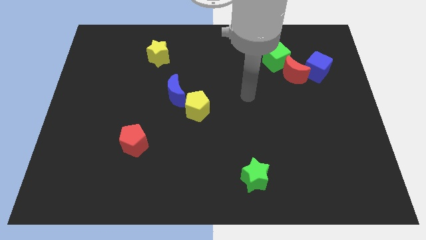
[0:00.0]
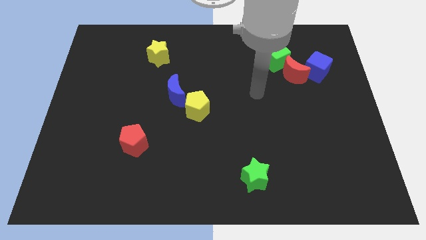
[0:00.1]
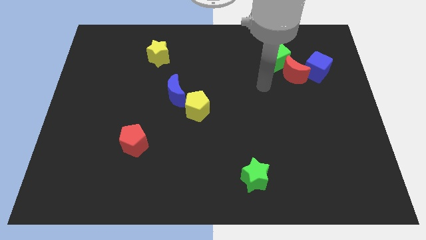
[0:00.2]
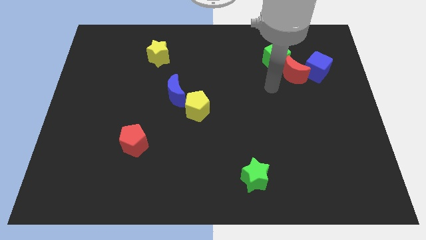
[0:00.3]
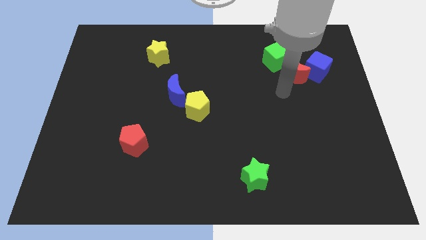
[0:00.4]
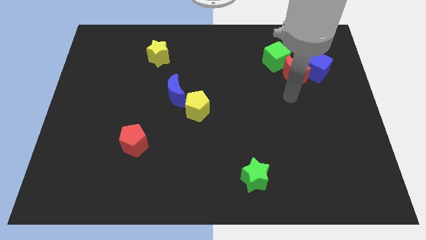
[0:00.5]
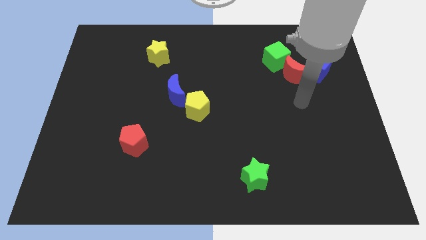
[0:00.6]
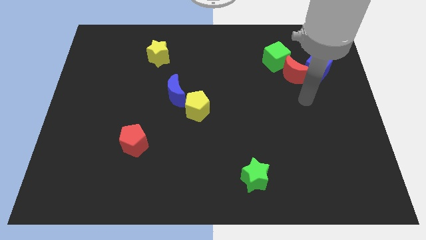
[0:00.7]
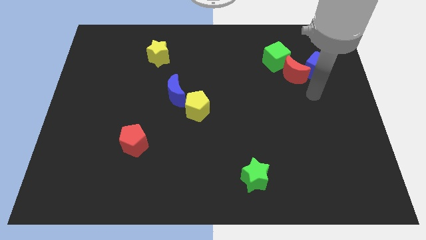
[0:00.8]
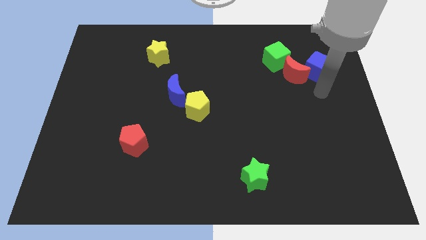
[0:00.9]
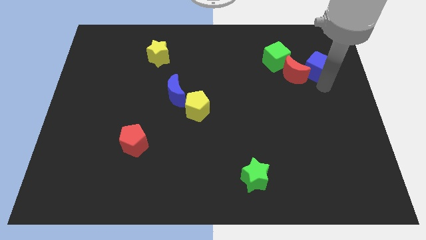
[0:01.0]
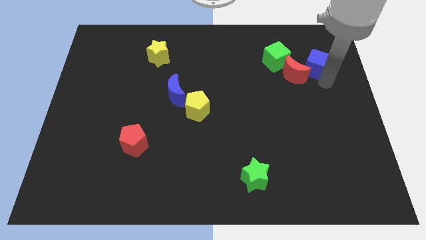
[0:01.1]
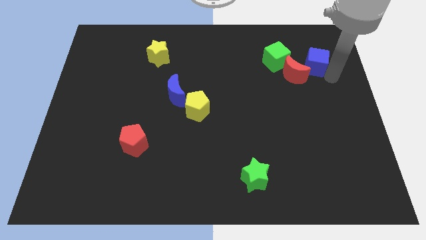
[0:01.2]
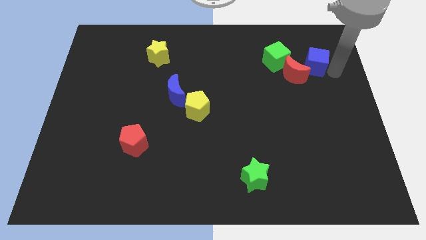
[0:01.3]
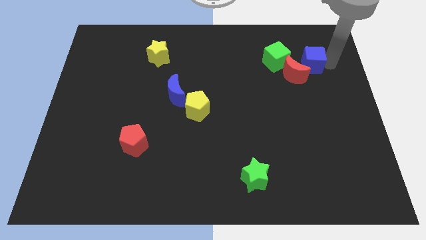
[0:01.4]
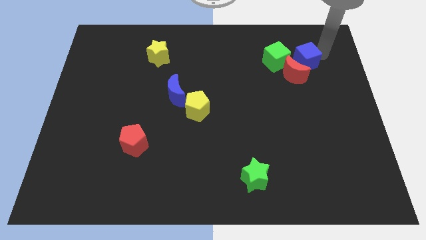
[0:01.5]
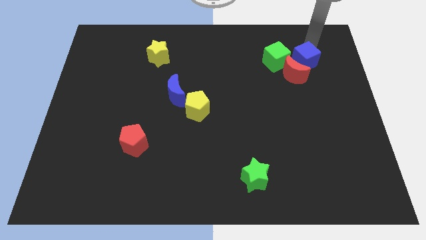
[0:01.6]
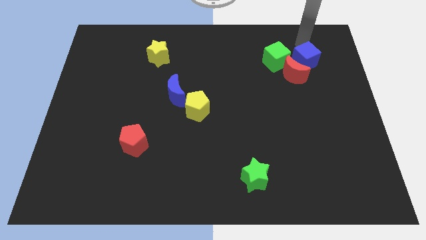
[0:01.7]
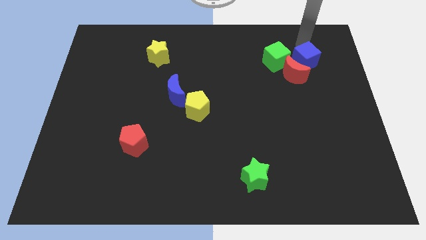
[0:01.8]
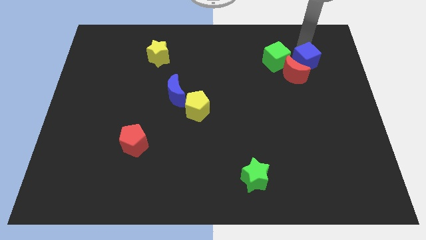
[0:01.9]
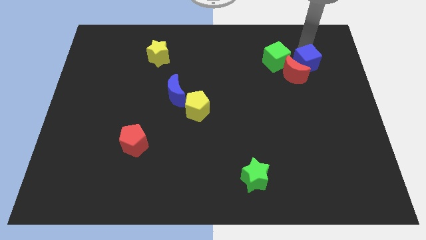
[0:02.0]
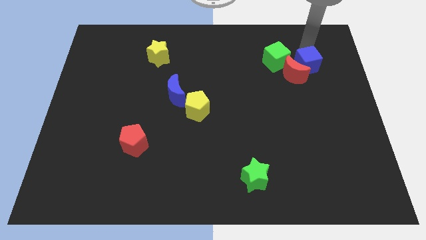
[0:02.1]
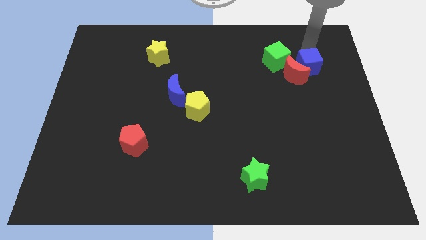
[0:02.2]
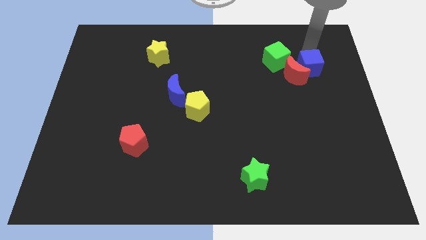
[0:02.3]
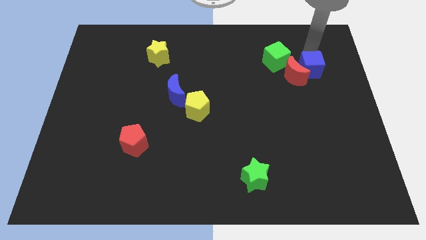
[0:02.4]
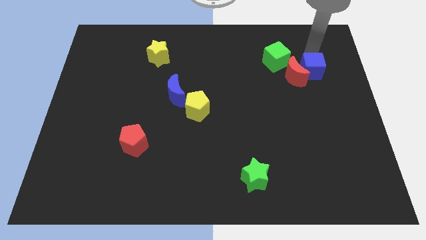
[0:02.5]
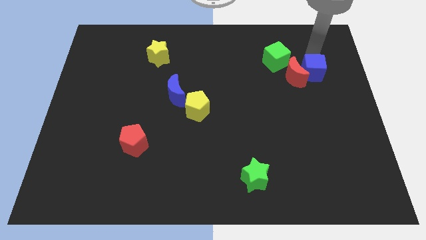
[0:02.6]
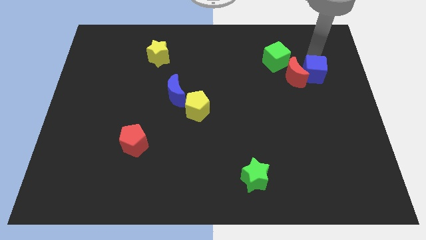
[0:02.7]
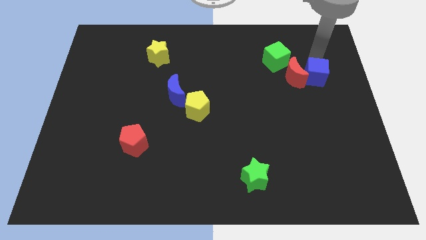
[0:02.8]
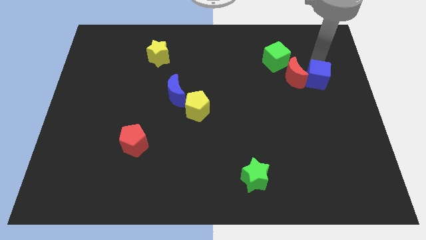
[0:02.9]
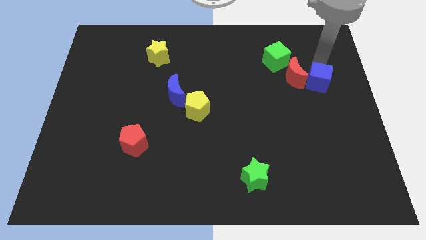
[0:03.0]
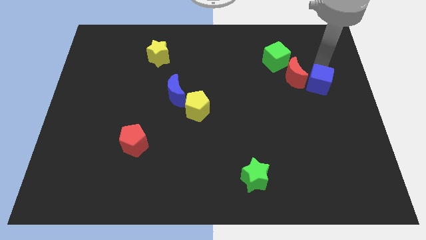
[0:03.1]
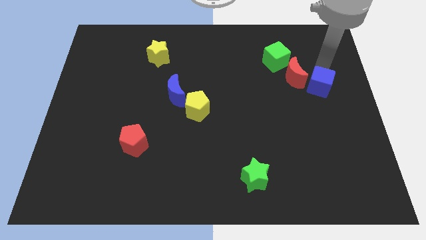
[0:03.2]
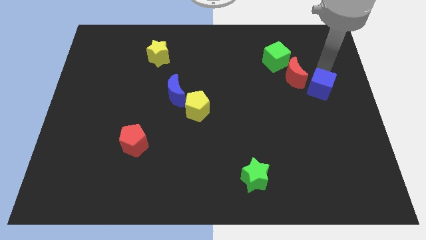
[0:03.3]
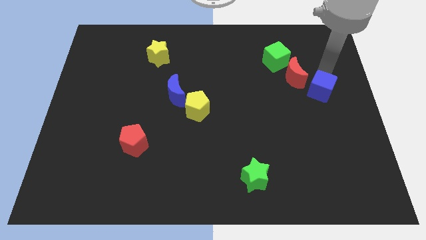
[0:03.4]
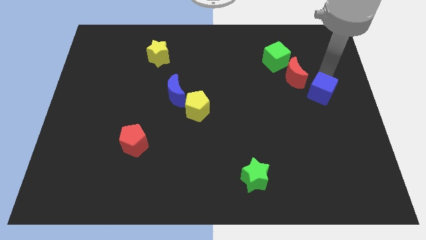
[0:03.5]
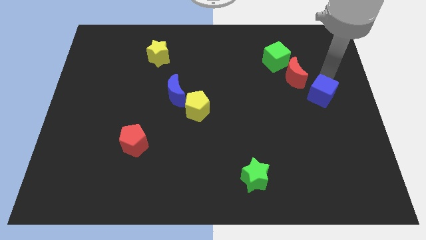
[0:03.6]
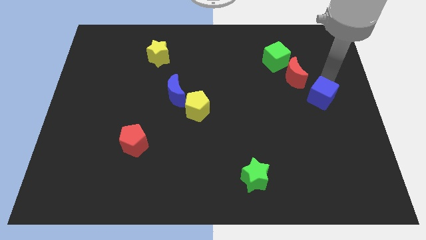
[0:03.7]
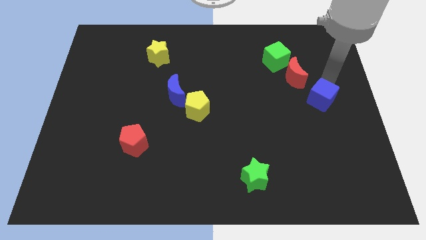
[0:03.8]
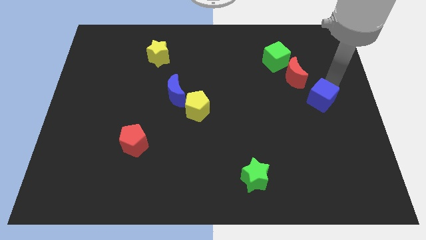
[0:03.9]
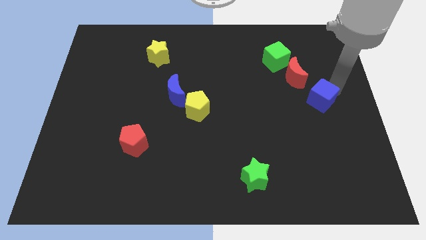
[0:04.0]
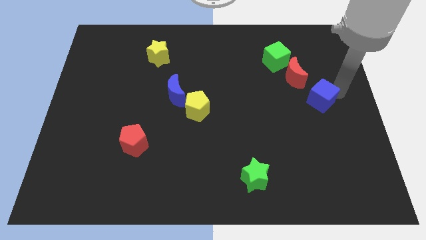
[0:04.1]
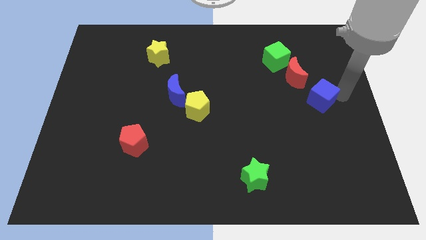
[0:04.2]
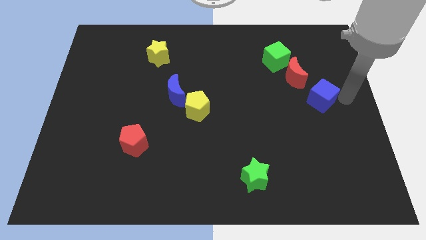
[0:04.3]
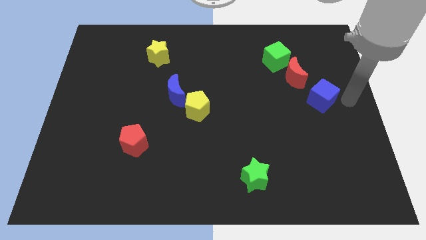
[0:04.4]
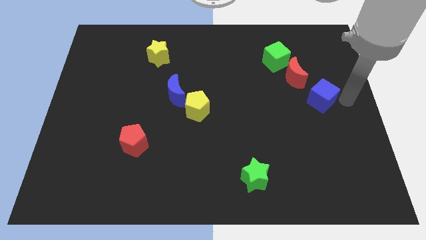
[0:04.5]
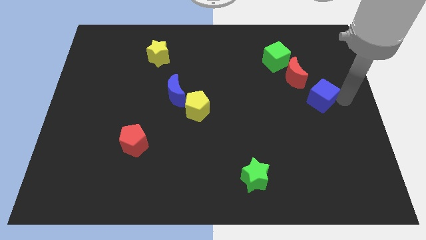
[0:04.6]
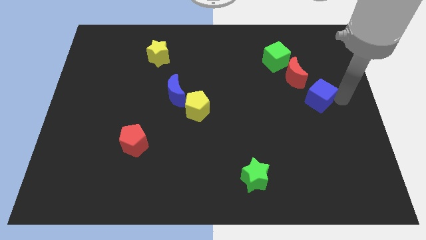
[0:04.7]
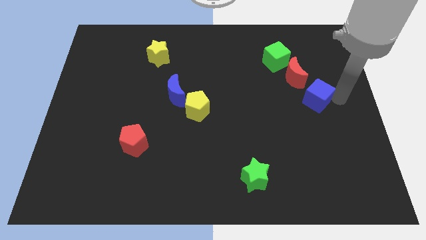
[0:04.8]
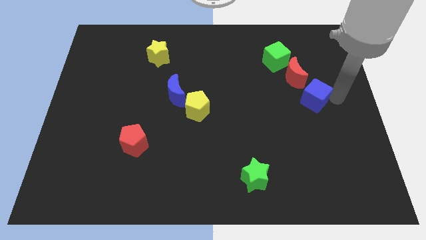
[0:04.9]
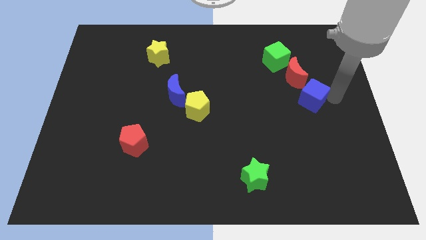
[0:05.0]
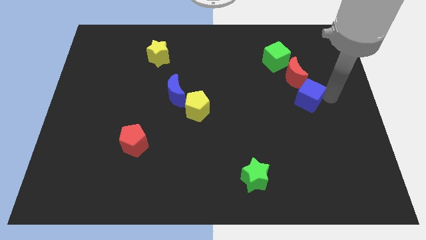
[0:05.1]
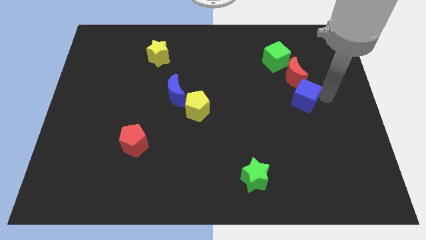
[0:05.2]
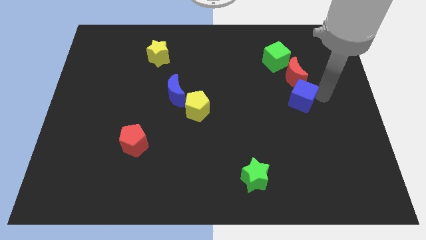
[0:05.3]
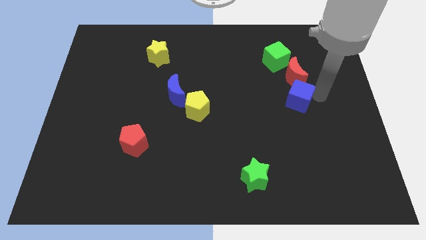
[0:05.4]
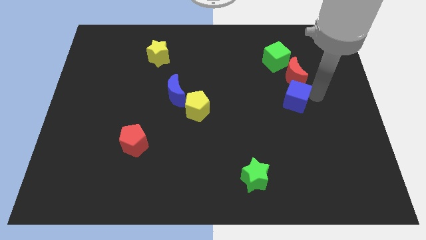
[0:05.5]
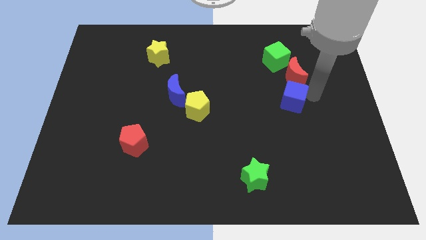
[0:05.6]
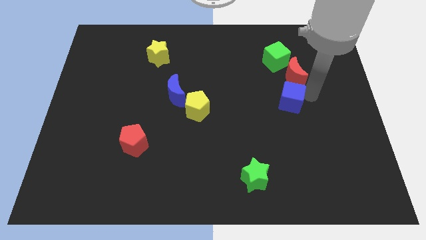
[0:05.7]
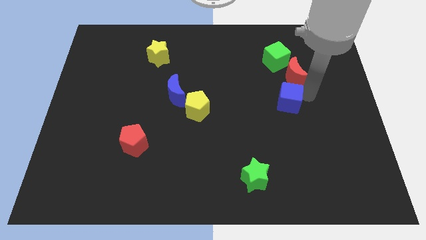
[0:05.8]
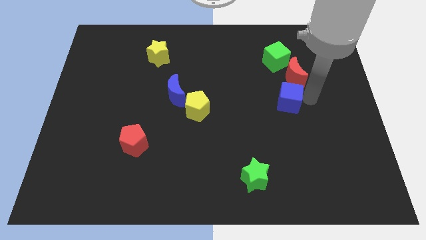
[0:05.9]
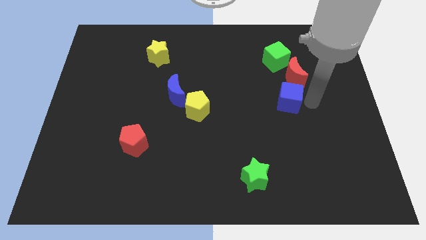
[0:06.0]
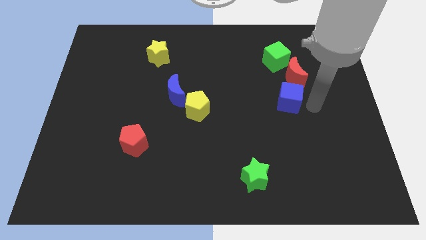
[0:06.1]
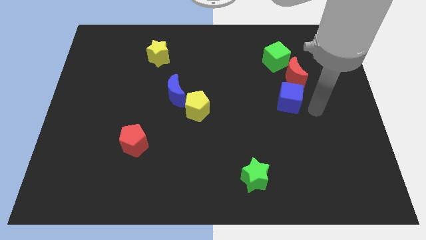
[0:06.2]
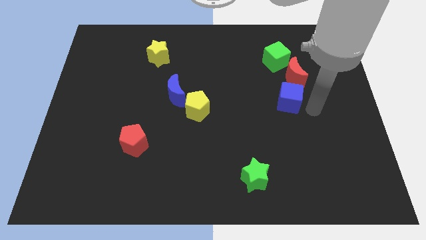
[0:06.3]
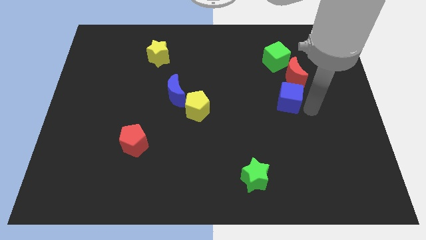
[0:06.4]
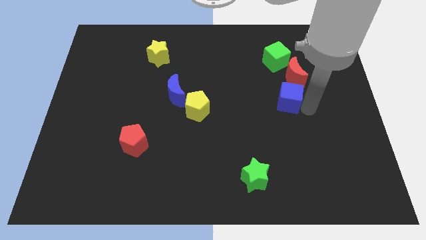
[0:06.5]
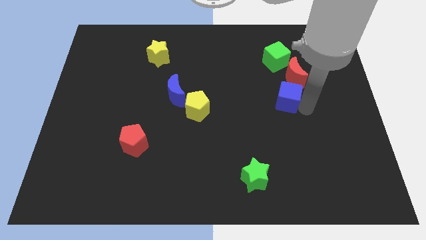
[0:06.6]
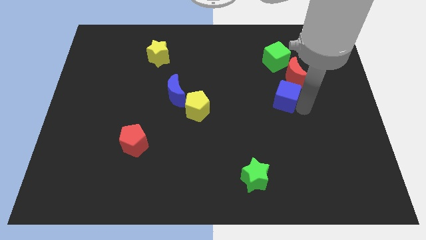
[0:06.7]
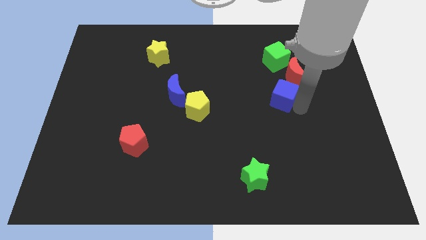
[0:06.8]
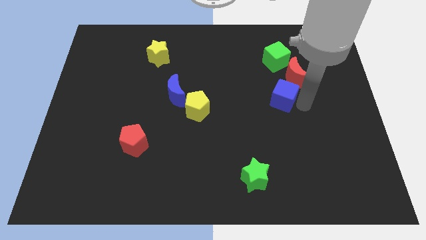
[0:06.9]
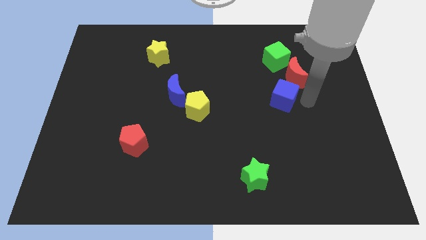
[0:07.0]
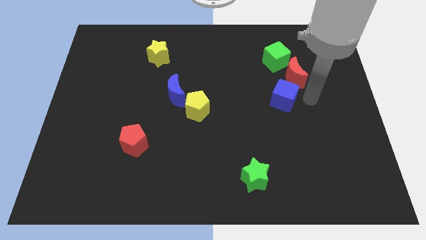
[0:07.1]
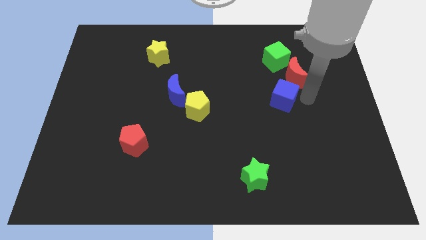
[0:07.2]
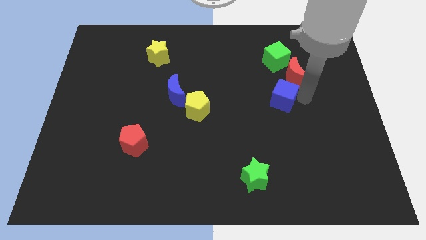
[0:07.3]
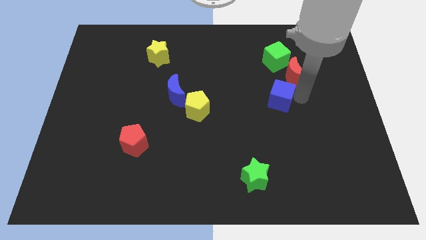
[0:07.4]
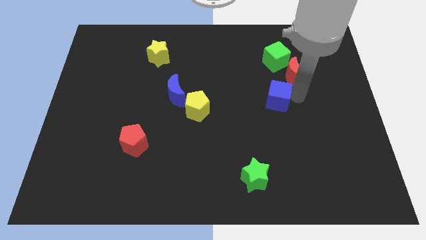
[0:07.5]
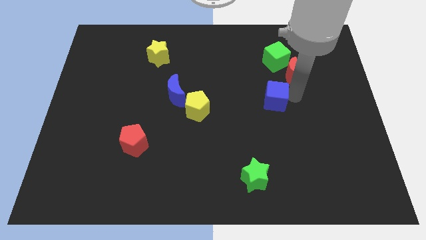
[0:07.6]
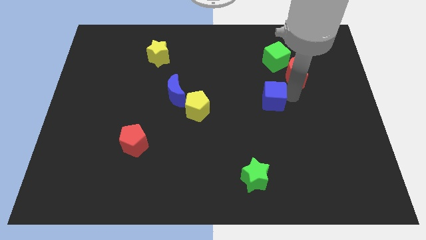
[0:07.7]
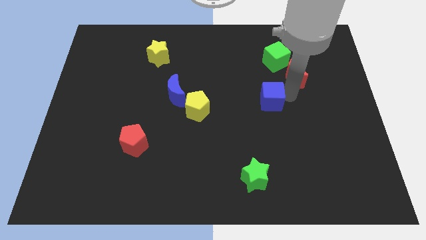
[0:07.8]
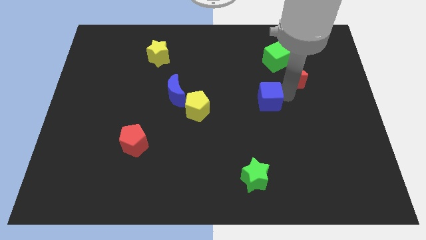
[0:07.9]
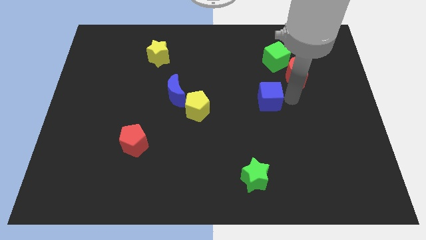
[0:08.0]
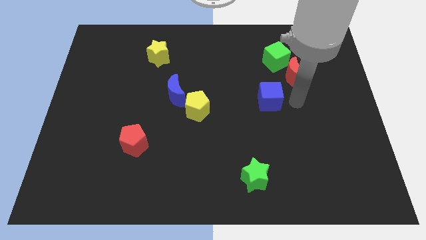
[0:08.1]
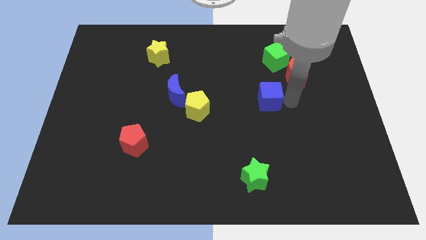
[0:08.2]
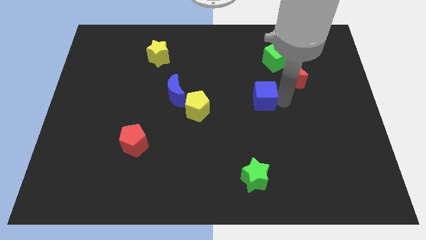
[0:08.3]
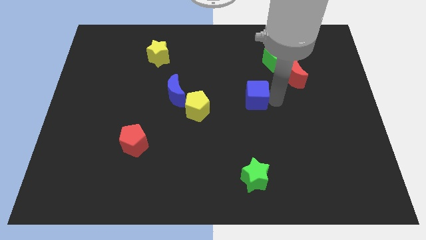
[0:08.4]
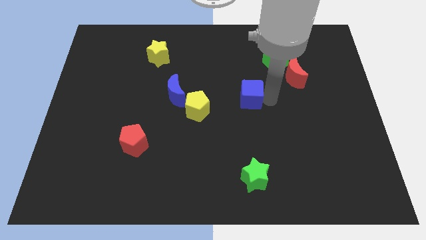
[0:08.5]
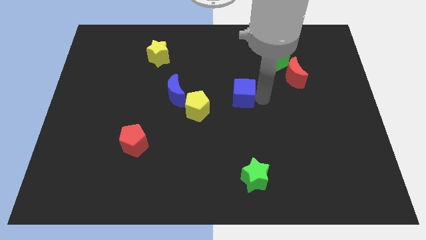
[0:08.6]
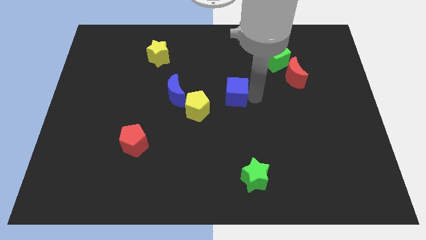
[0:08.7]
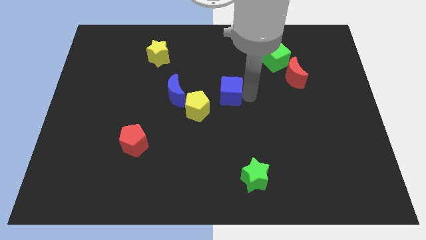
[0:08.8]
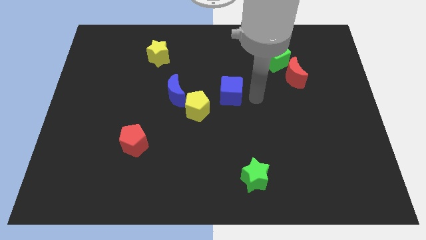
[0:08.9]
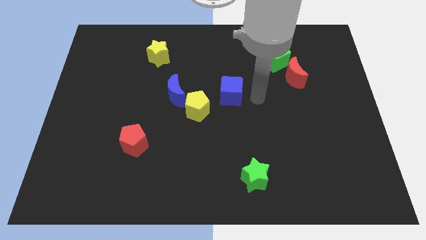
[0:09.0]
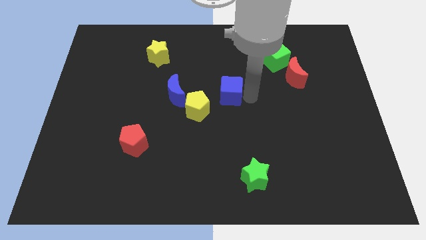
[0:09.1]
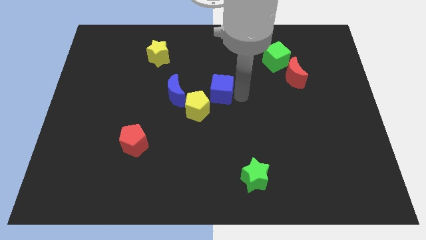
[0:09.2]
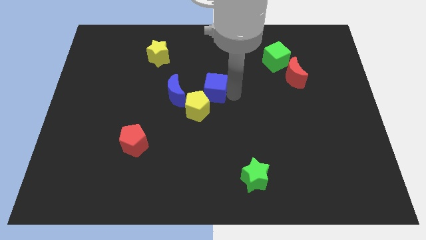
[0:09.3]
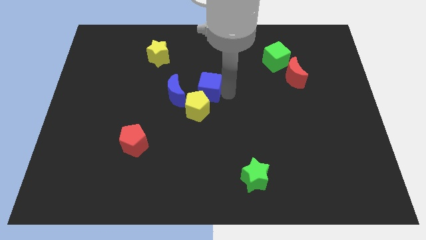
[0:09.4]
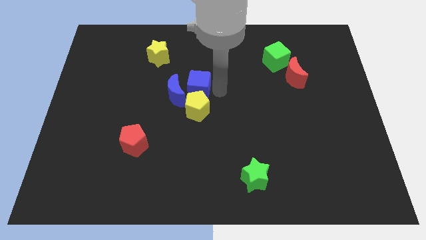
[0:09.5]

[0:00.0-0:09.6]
move the blue cube close to the blue moon
